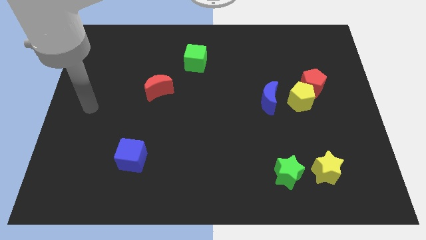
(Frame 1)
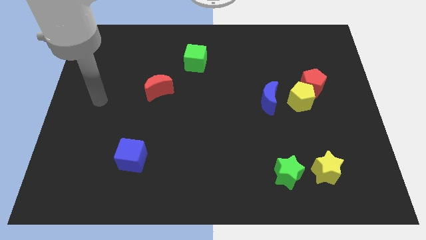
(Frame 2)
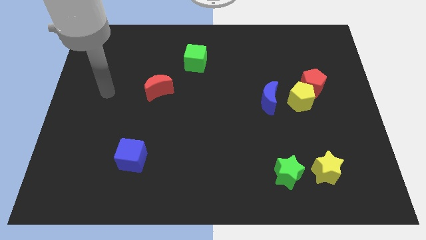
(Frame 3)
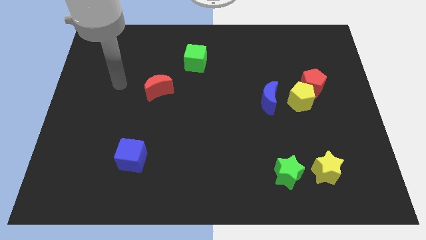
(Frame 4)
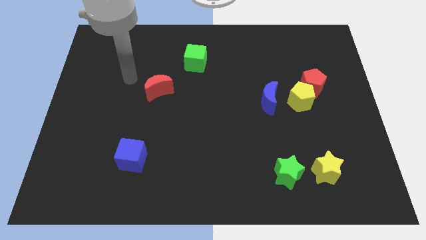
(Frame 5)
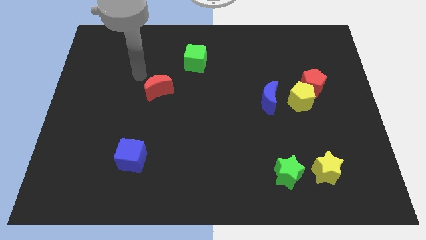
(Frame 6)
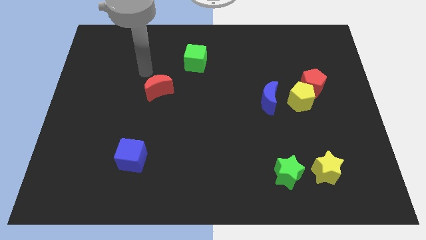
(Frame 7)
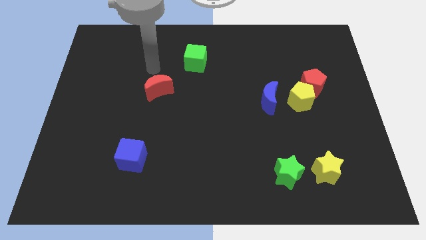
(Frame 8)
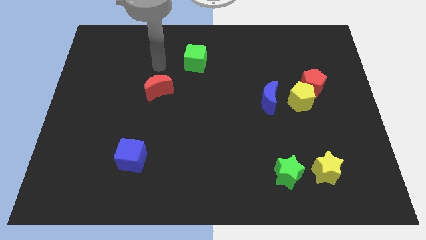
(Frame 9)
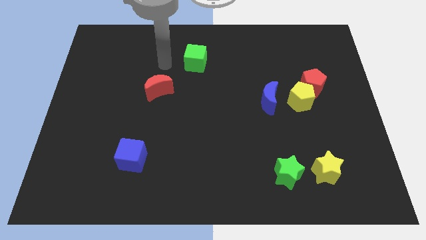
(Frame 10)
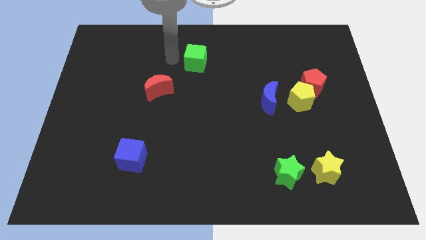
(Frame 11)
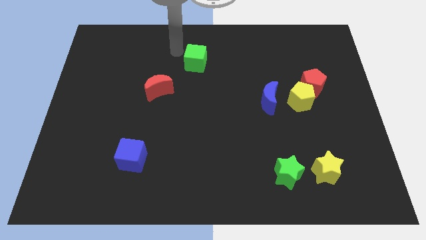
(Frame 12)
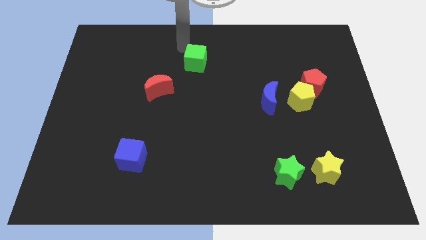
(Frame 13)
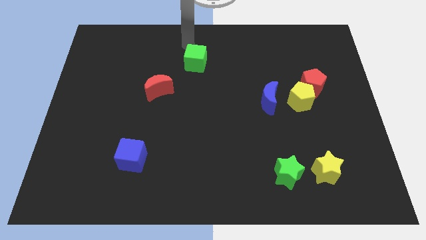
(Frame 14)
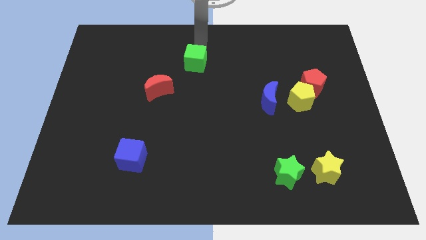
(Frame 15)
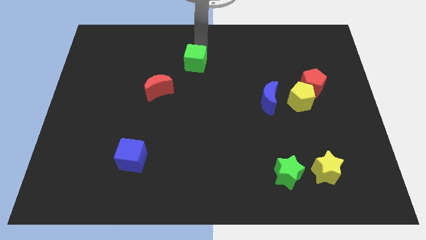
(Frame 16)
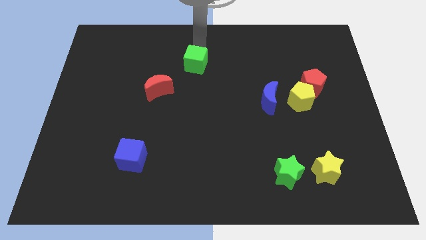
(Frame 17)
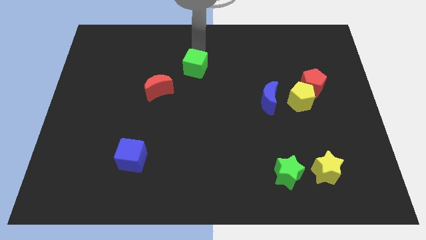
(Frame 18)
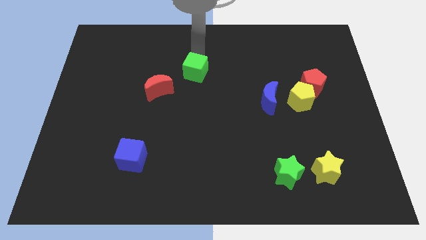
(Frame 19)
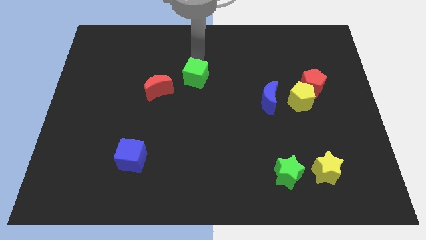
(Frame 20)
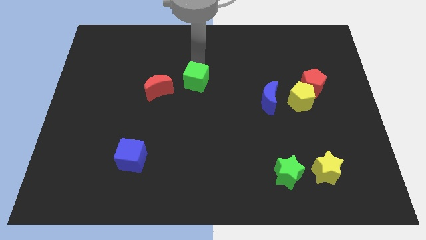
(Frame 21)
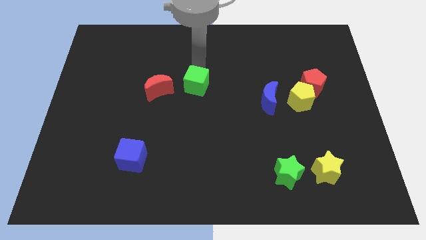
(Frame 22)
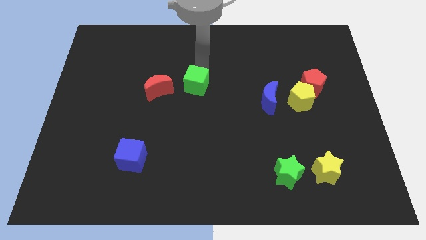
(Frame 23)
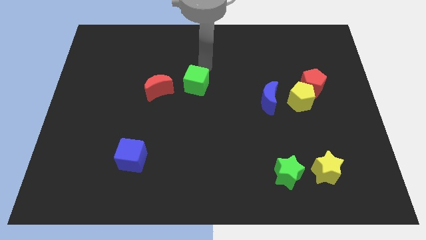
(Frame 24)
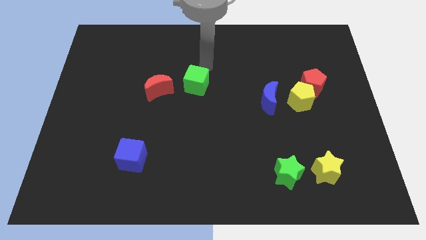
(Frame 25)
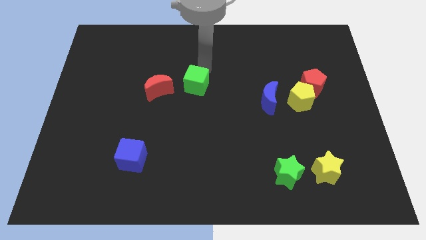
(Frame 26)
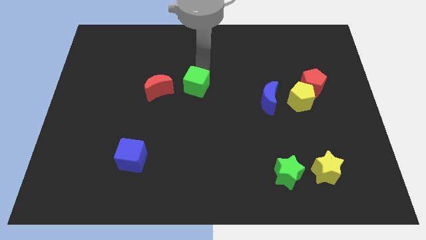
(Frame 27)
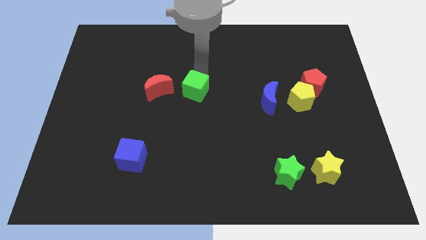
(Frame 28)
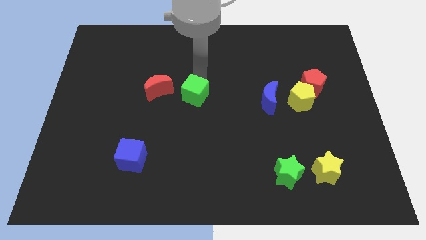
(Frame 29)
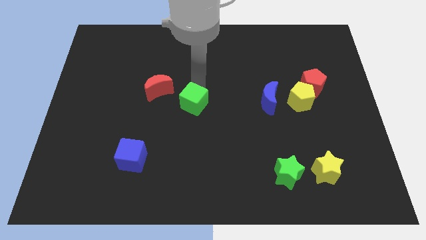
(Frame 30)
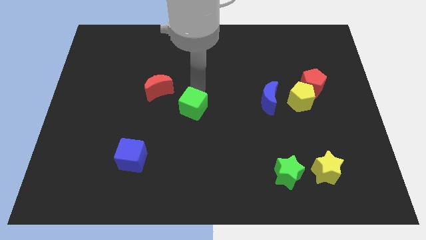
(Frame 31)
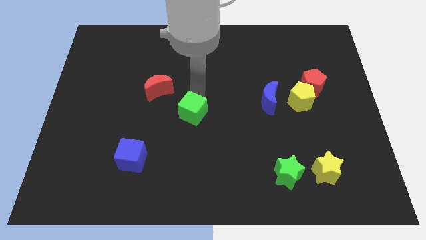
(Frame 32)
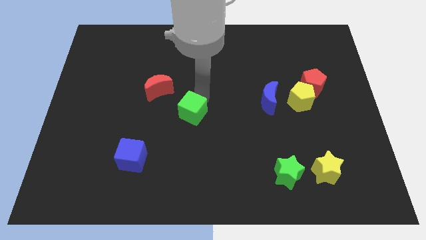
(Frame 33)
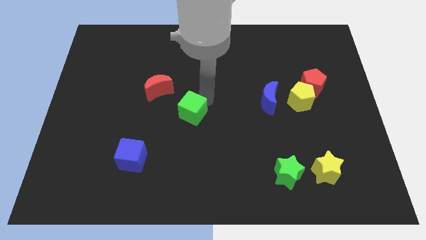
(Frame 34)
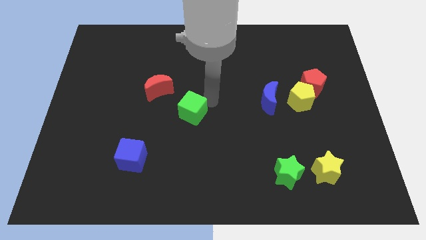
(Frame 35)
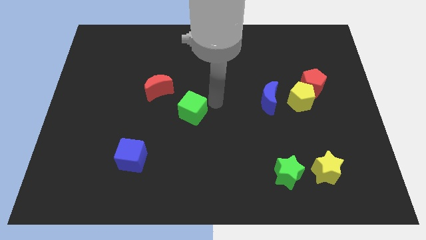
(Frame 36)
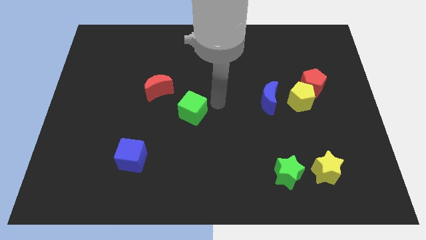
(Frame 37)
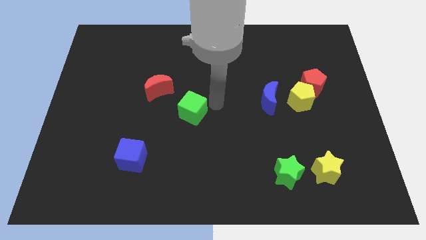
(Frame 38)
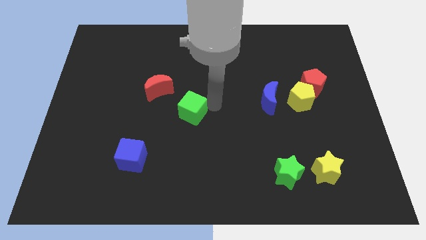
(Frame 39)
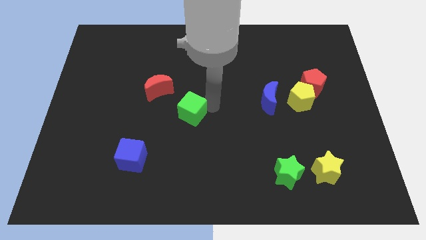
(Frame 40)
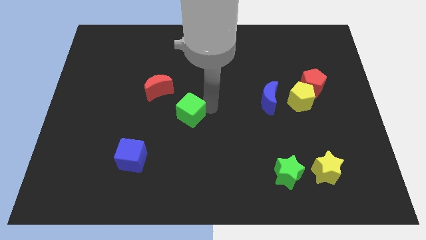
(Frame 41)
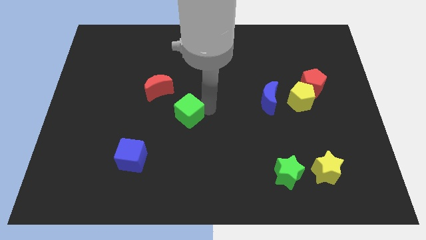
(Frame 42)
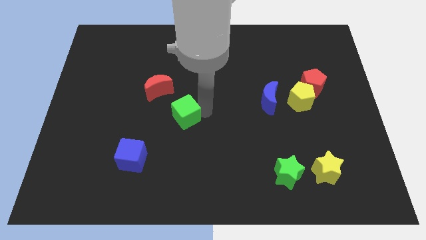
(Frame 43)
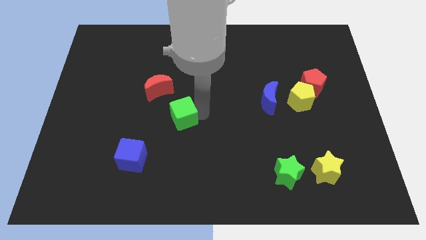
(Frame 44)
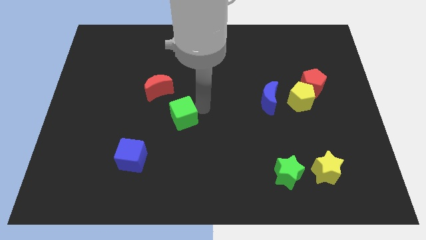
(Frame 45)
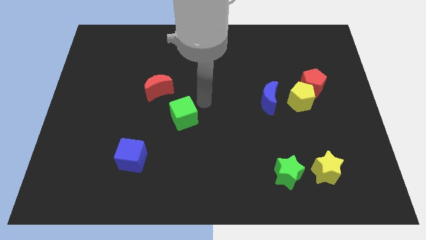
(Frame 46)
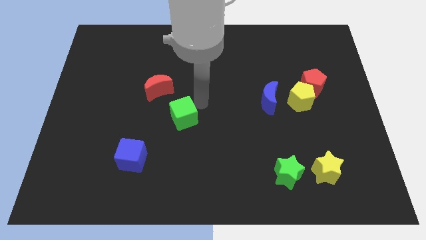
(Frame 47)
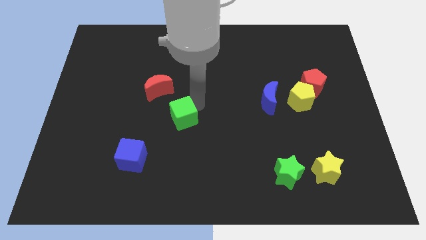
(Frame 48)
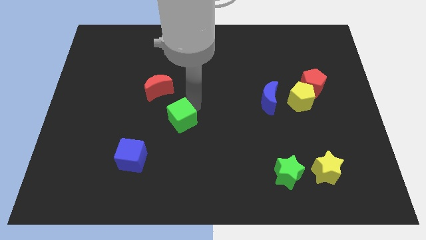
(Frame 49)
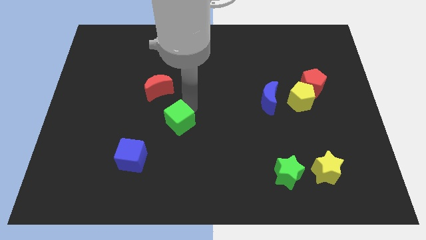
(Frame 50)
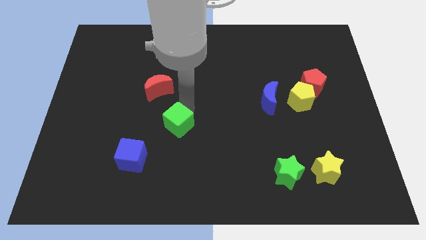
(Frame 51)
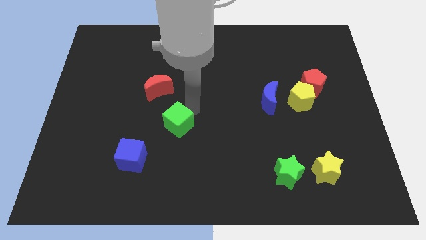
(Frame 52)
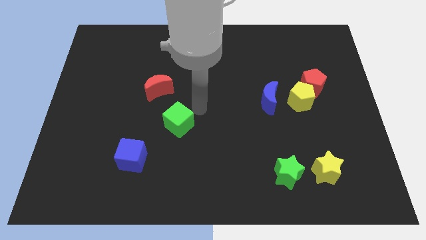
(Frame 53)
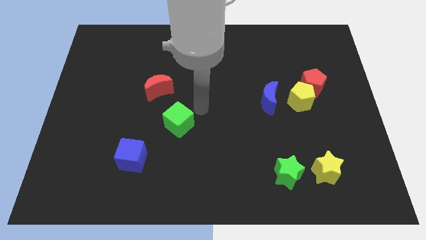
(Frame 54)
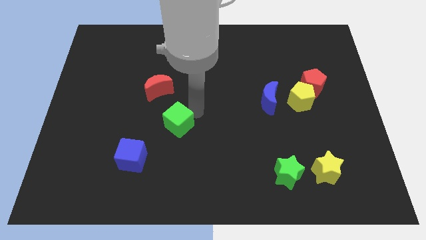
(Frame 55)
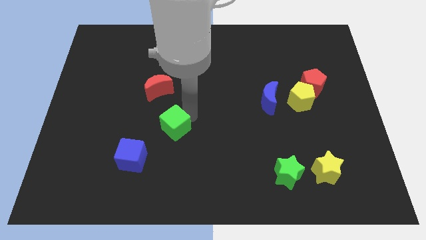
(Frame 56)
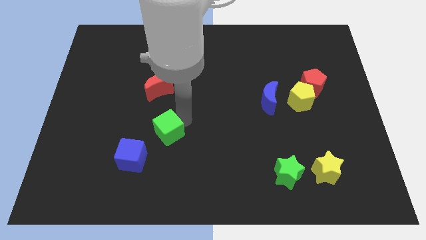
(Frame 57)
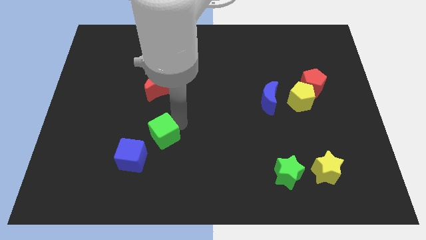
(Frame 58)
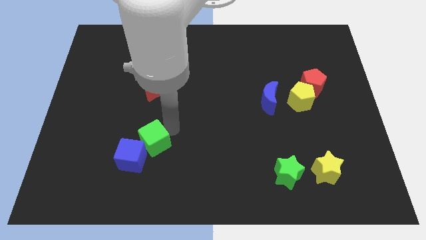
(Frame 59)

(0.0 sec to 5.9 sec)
put the green cube next to the blue cube

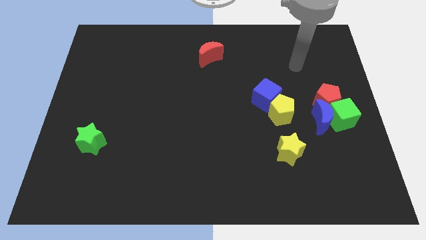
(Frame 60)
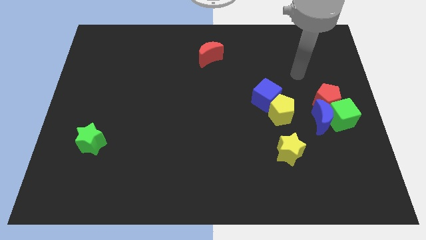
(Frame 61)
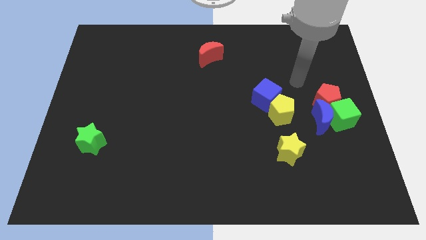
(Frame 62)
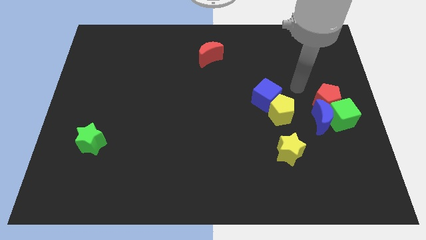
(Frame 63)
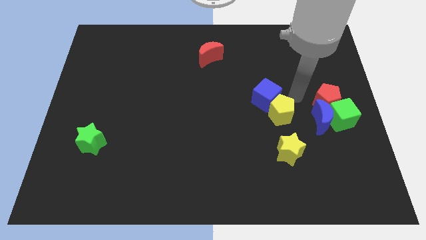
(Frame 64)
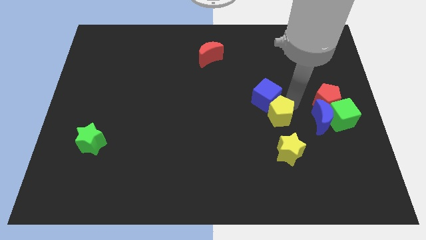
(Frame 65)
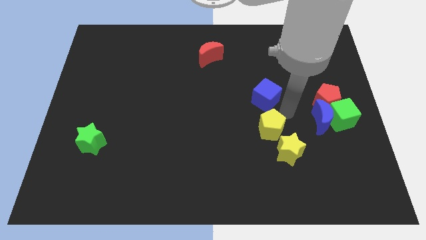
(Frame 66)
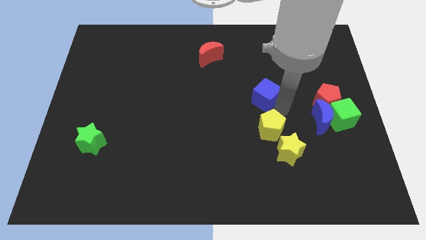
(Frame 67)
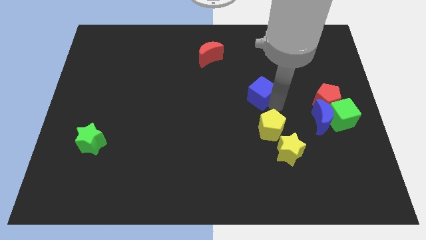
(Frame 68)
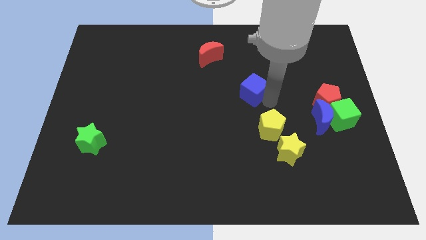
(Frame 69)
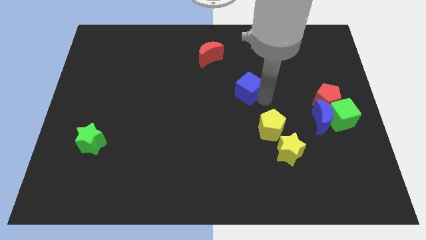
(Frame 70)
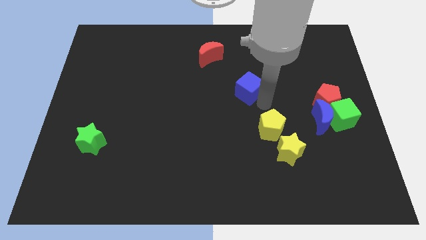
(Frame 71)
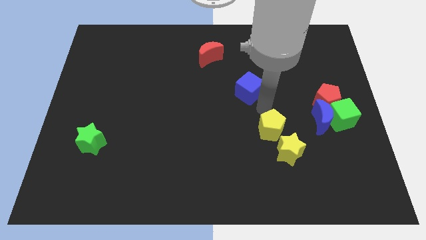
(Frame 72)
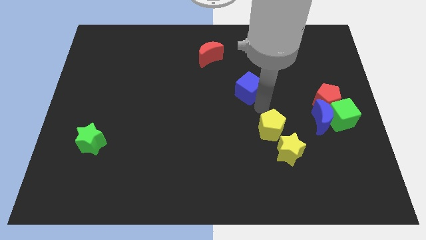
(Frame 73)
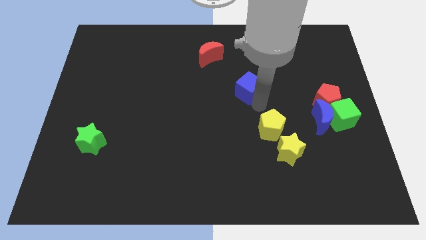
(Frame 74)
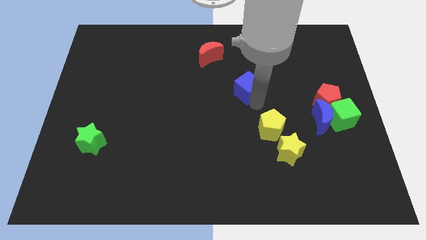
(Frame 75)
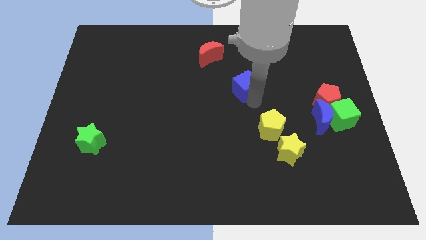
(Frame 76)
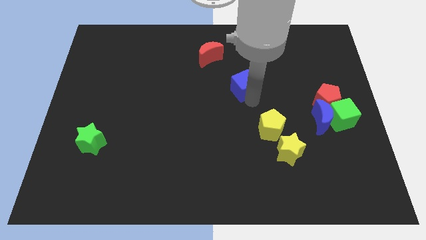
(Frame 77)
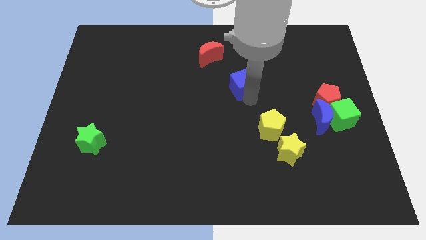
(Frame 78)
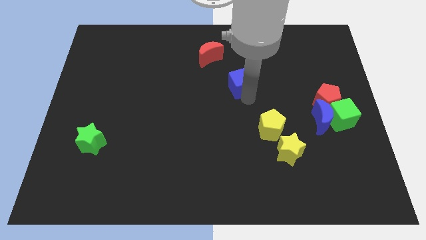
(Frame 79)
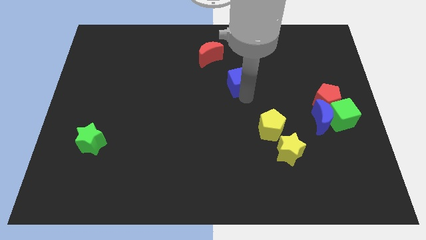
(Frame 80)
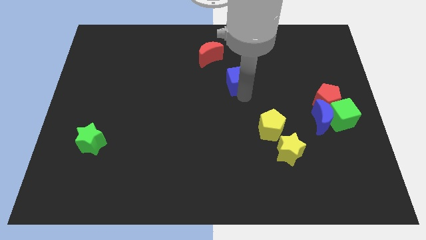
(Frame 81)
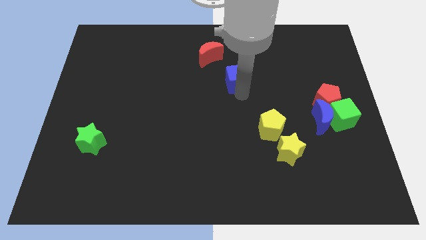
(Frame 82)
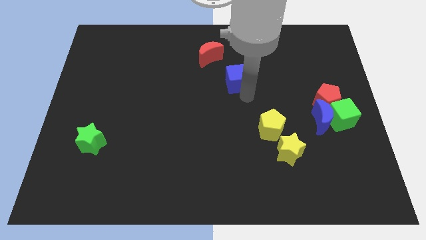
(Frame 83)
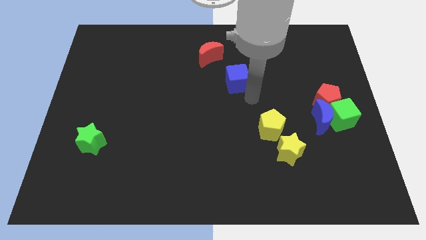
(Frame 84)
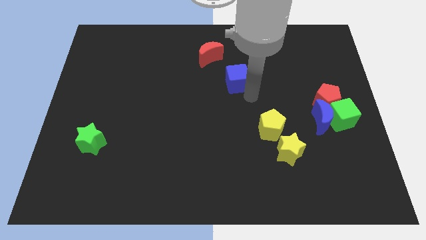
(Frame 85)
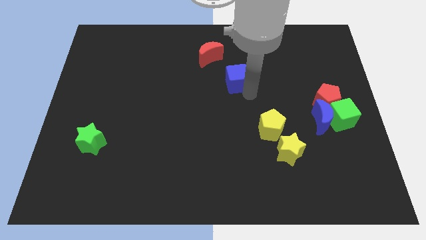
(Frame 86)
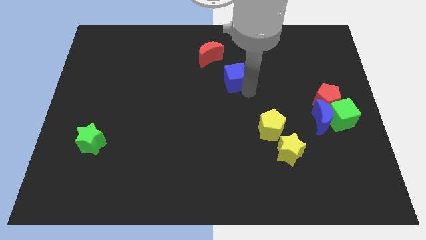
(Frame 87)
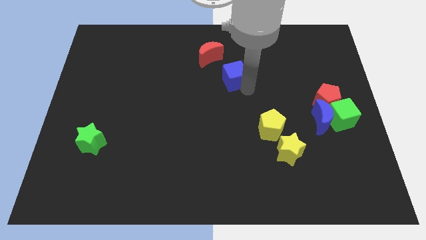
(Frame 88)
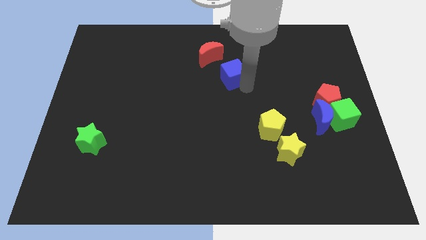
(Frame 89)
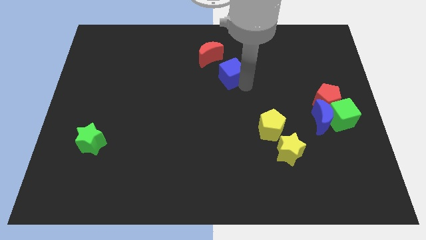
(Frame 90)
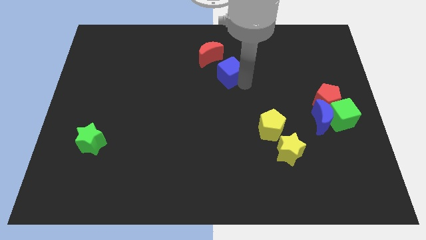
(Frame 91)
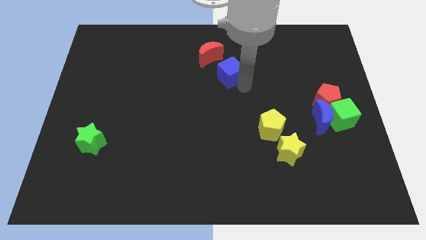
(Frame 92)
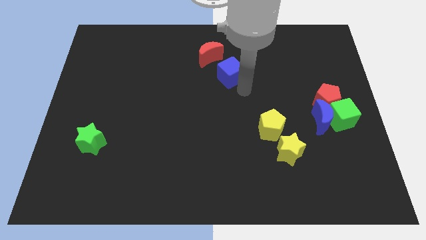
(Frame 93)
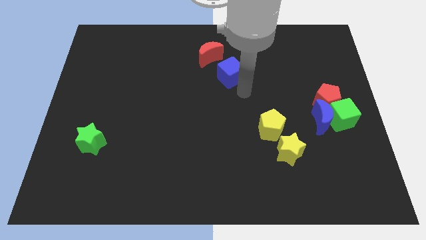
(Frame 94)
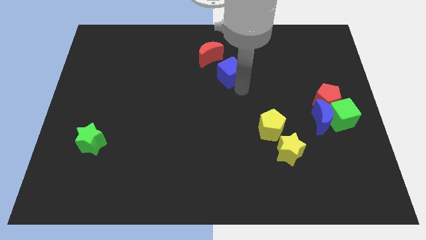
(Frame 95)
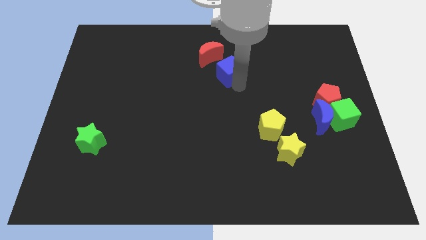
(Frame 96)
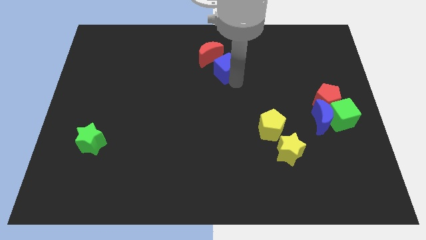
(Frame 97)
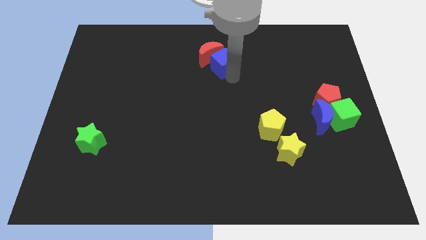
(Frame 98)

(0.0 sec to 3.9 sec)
put the blue cube to the red moon
